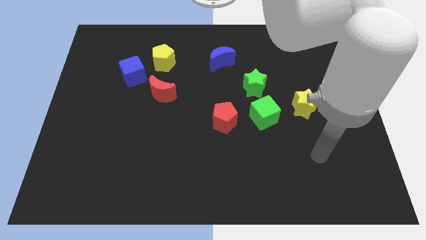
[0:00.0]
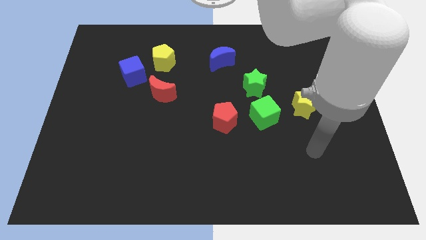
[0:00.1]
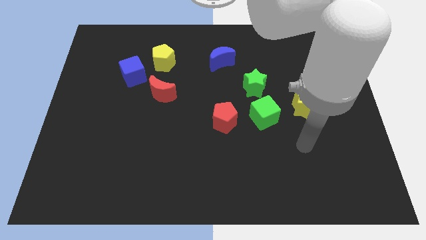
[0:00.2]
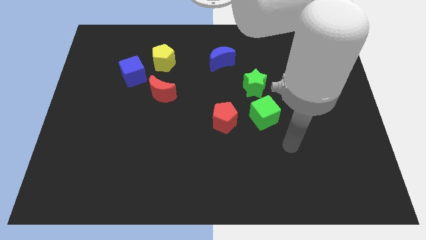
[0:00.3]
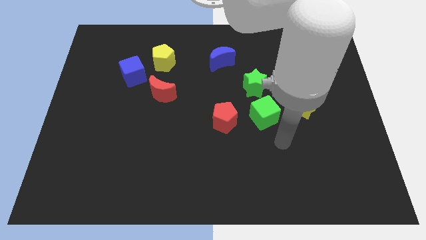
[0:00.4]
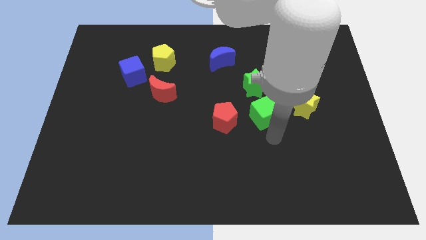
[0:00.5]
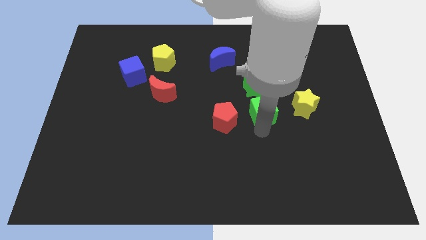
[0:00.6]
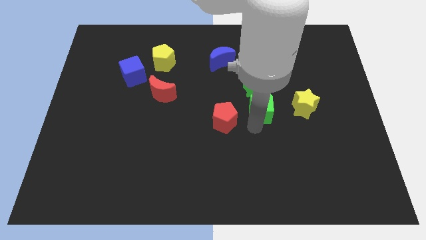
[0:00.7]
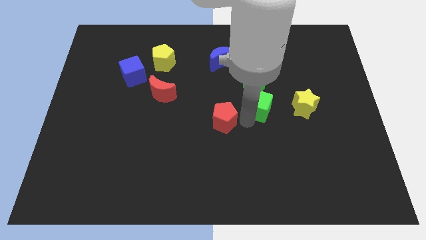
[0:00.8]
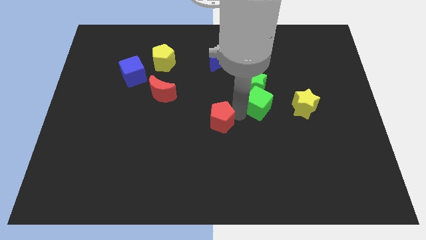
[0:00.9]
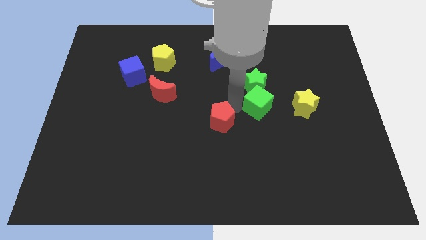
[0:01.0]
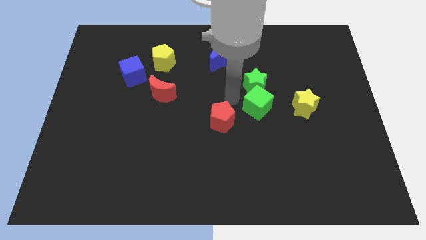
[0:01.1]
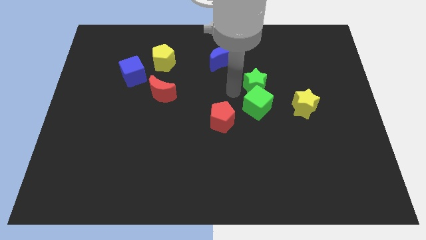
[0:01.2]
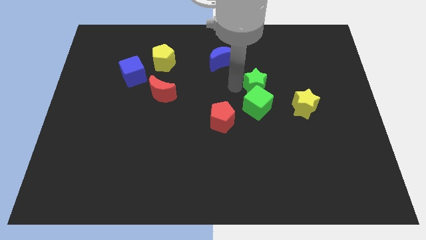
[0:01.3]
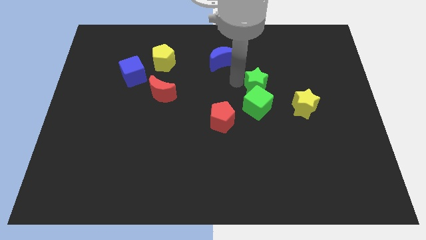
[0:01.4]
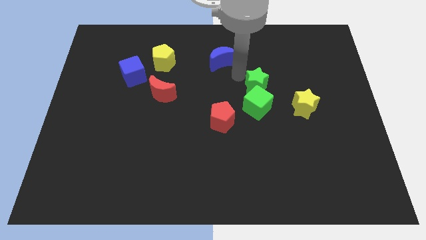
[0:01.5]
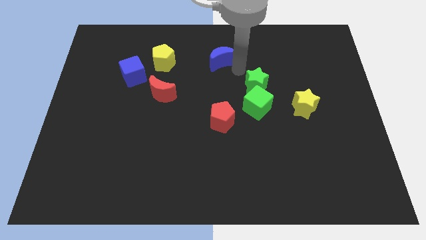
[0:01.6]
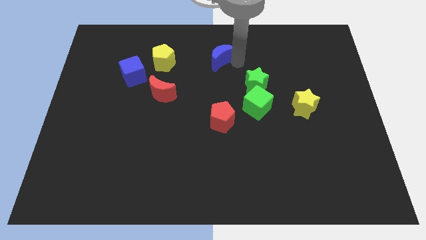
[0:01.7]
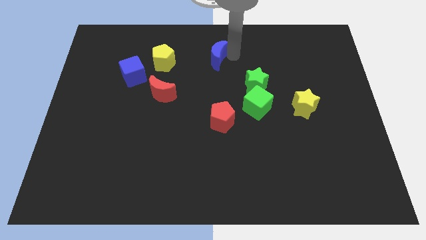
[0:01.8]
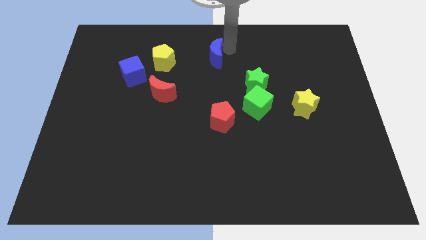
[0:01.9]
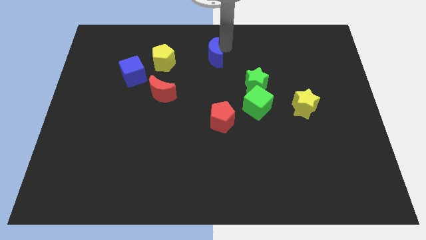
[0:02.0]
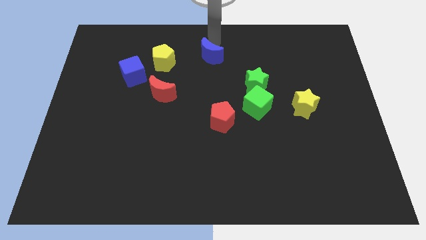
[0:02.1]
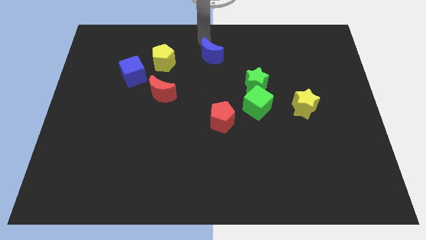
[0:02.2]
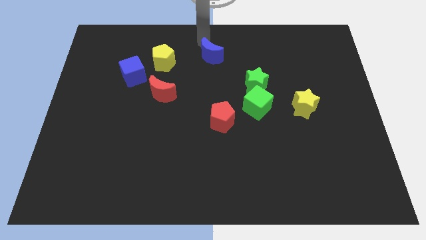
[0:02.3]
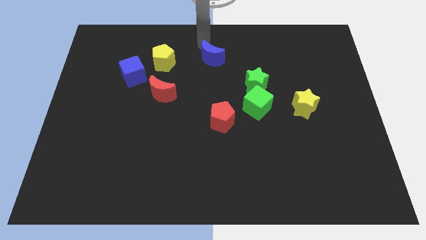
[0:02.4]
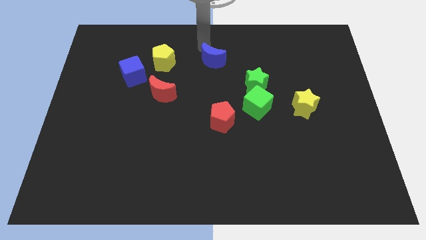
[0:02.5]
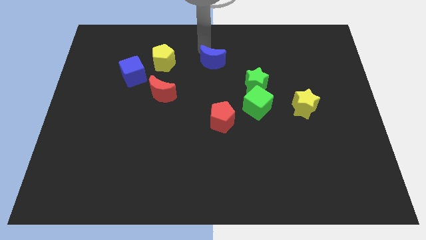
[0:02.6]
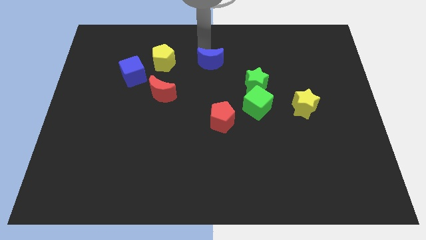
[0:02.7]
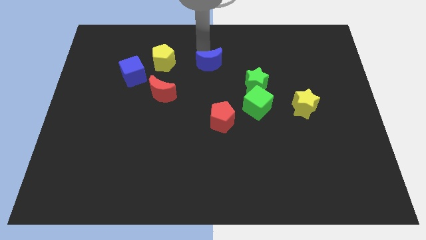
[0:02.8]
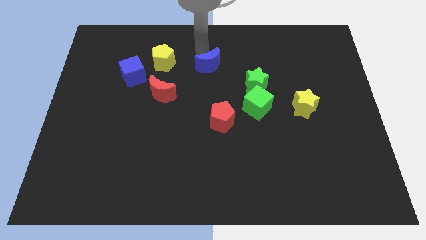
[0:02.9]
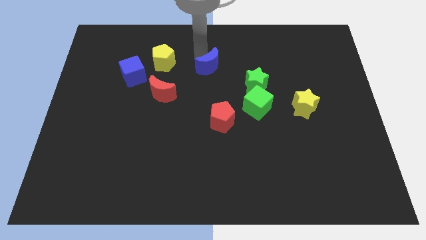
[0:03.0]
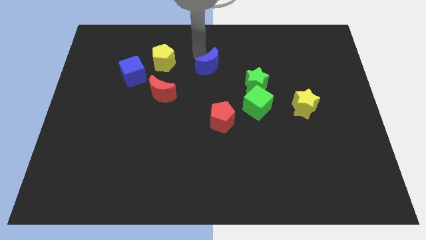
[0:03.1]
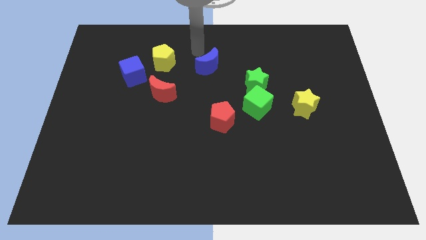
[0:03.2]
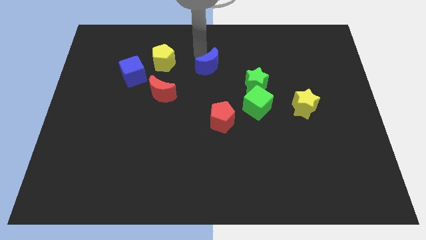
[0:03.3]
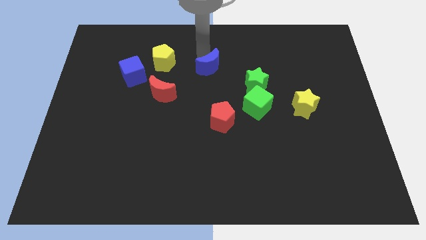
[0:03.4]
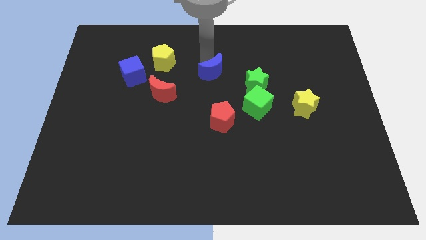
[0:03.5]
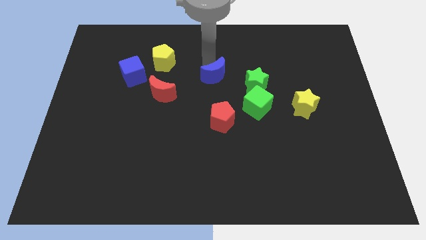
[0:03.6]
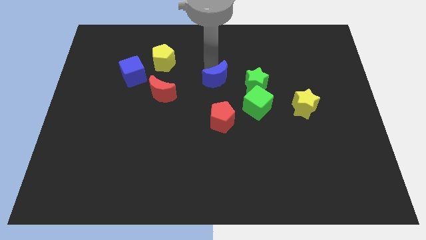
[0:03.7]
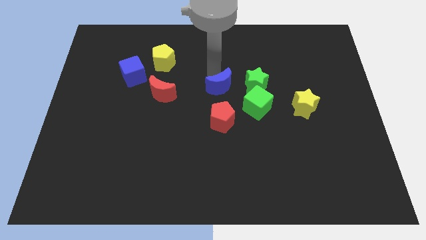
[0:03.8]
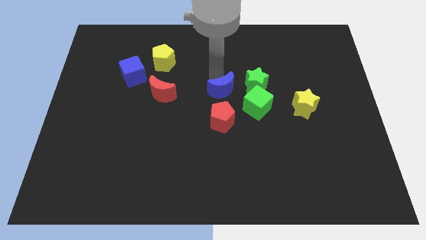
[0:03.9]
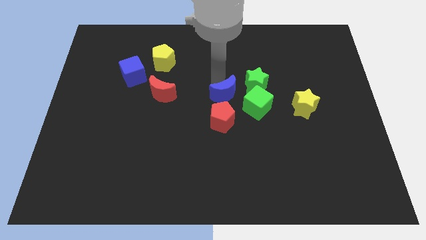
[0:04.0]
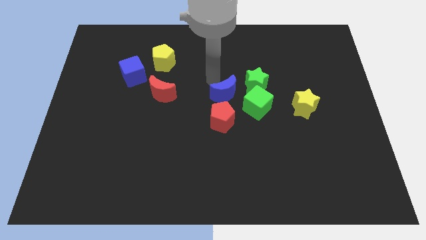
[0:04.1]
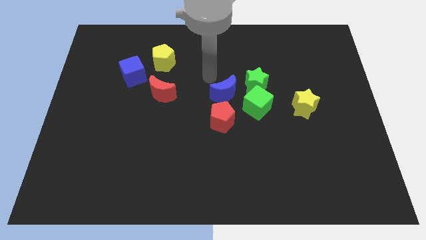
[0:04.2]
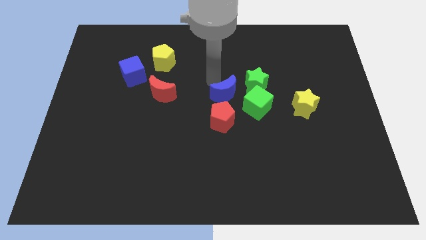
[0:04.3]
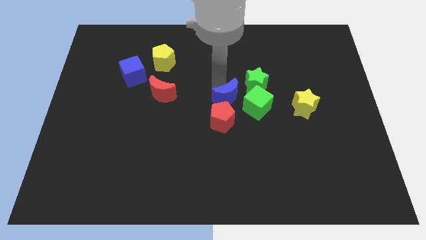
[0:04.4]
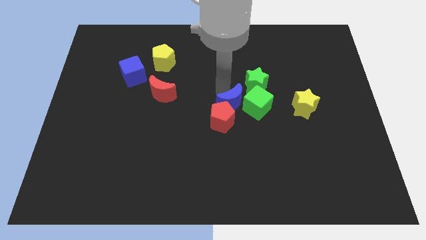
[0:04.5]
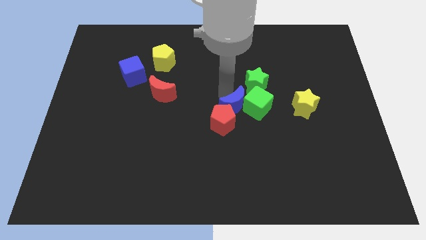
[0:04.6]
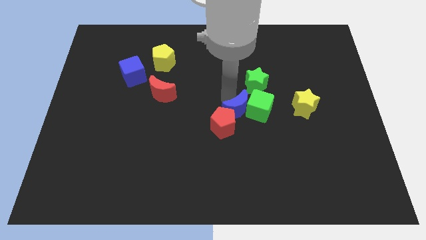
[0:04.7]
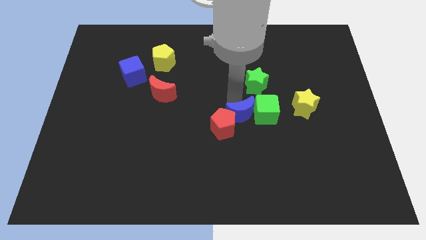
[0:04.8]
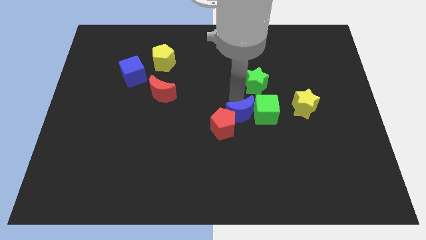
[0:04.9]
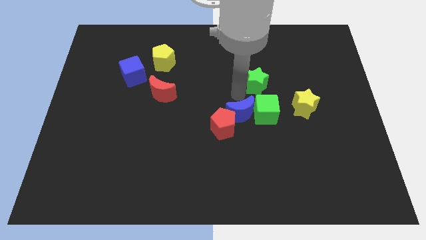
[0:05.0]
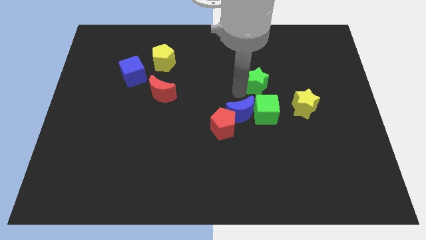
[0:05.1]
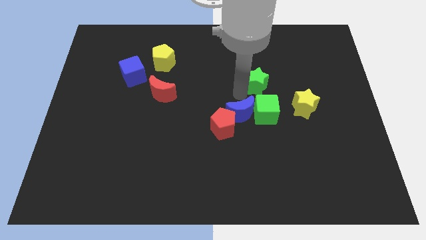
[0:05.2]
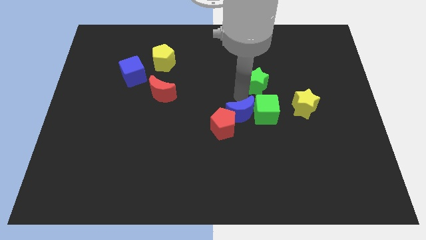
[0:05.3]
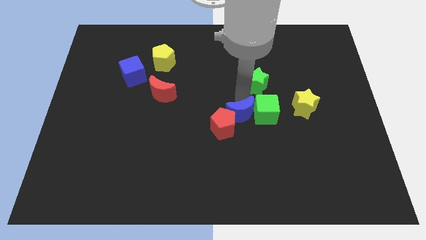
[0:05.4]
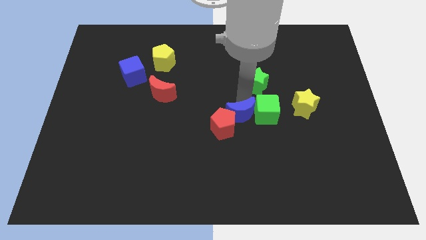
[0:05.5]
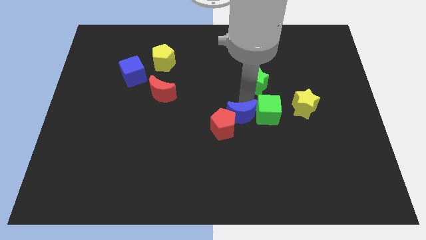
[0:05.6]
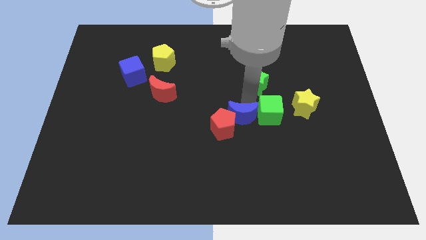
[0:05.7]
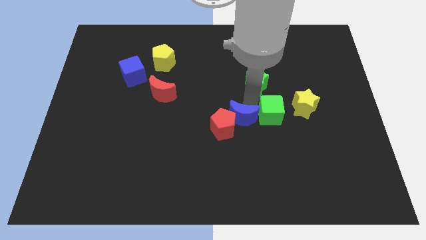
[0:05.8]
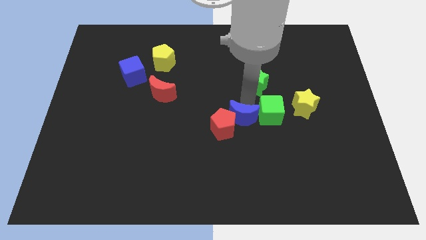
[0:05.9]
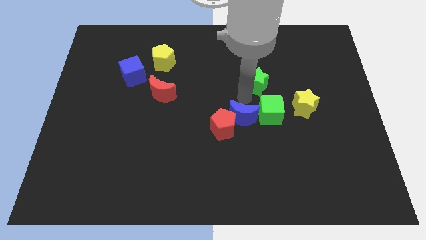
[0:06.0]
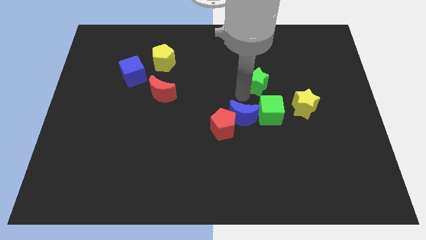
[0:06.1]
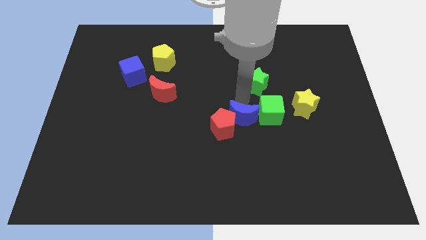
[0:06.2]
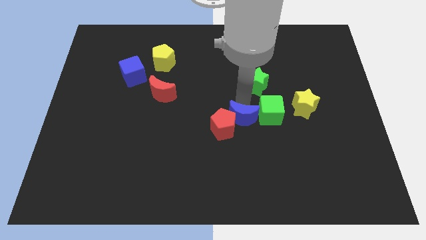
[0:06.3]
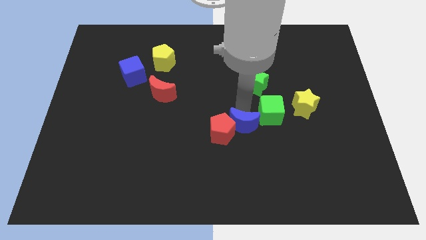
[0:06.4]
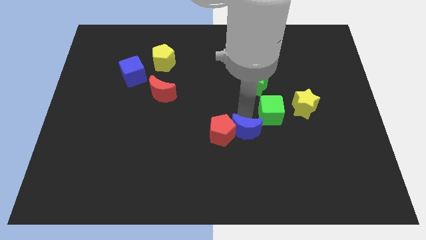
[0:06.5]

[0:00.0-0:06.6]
move the blue moon down

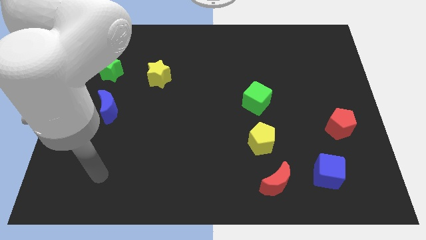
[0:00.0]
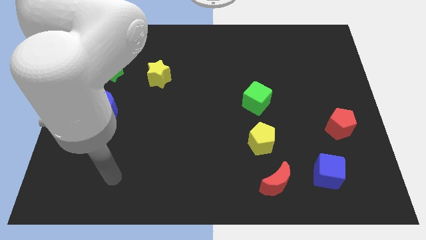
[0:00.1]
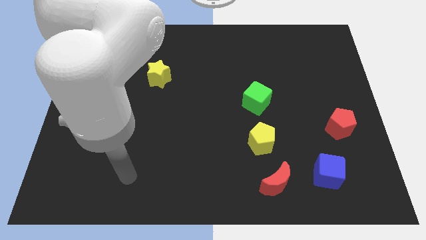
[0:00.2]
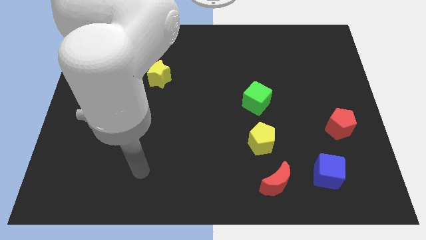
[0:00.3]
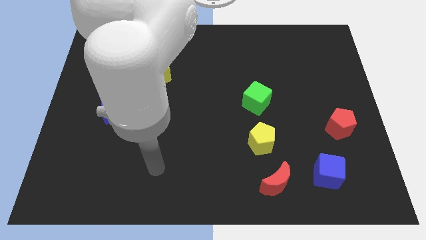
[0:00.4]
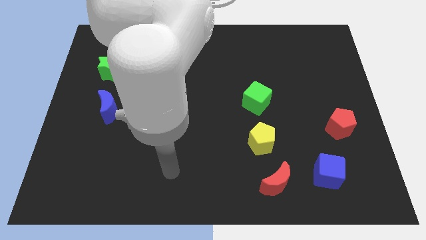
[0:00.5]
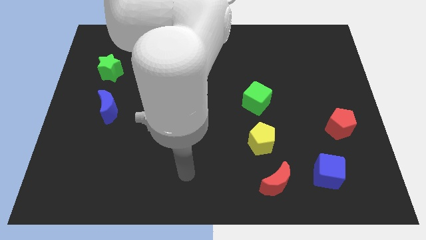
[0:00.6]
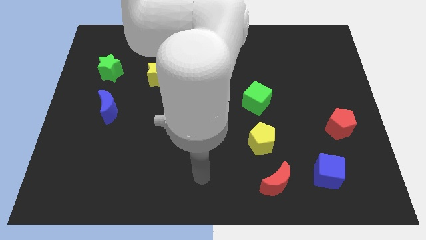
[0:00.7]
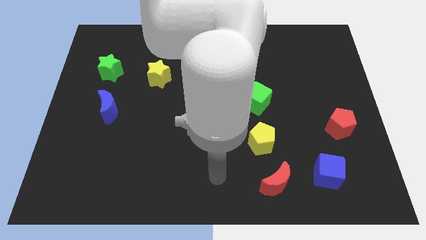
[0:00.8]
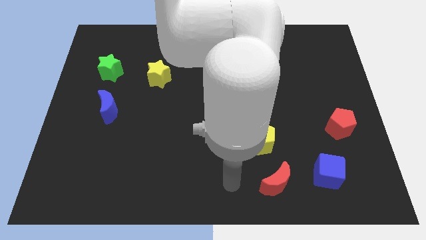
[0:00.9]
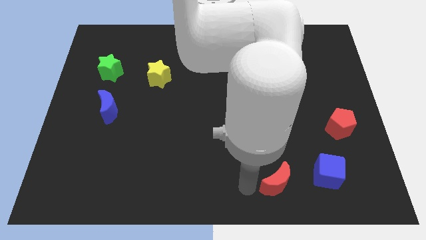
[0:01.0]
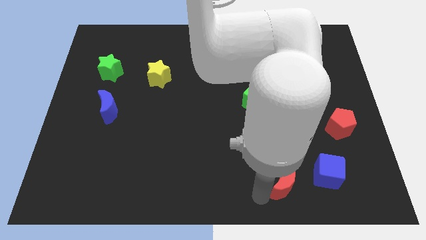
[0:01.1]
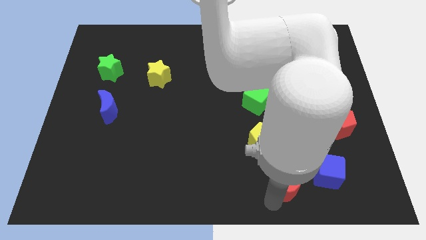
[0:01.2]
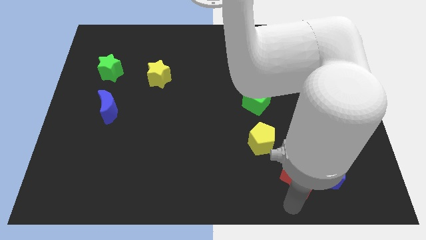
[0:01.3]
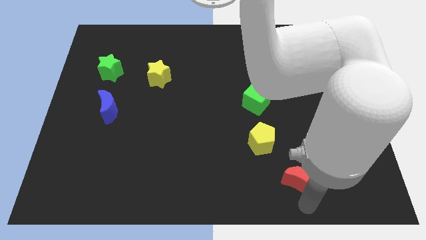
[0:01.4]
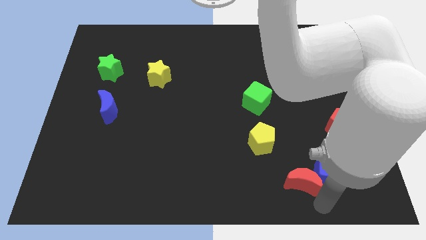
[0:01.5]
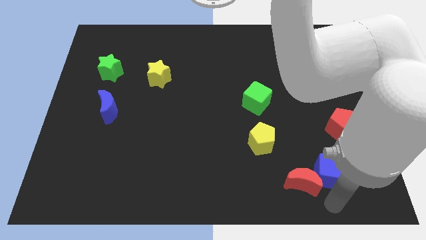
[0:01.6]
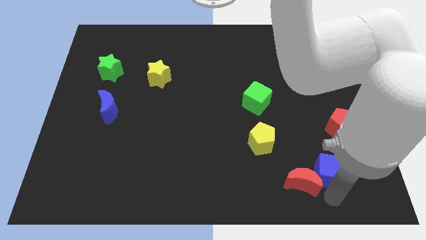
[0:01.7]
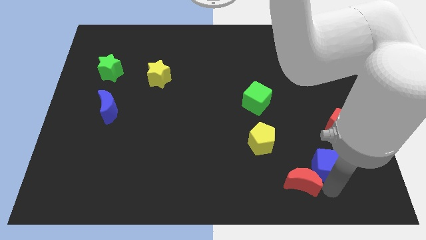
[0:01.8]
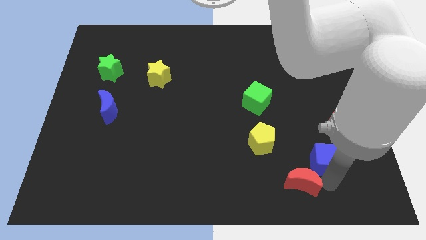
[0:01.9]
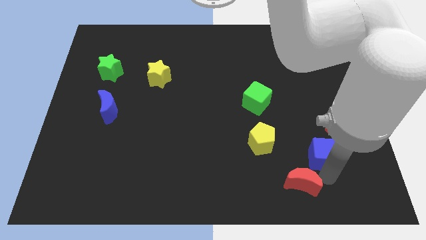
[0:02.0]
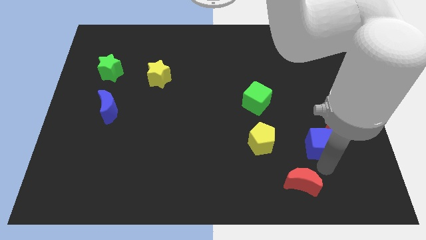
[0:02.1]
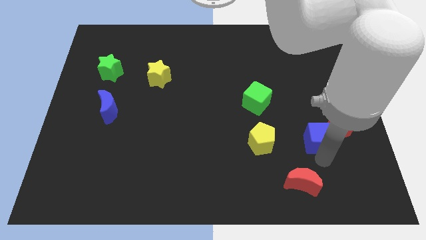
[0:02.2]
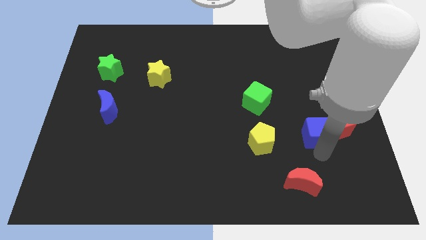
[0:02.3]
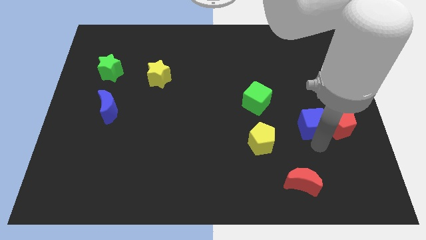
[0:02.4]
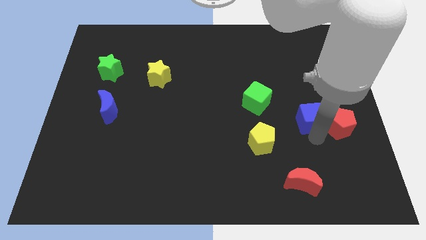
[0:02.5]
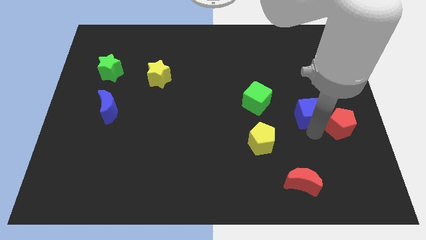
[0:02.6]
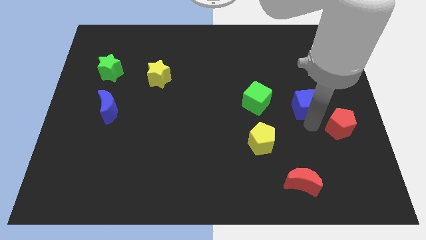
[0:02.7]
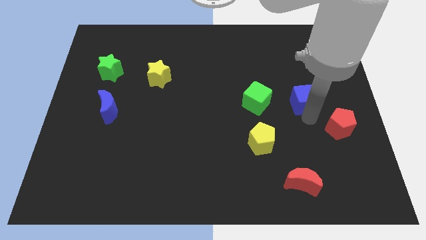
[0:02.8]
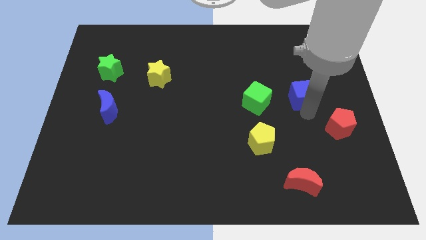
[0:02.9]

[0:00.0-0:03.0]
slide the blue cube upwards
